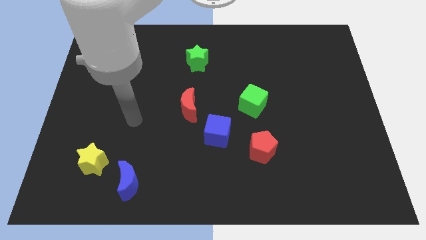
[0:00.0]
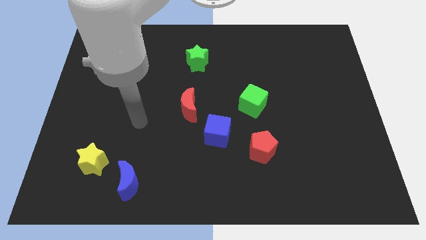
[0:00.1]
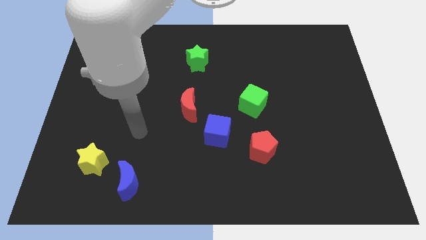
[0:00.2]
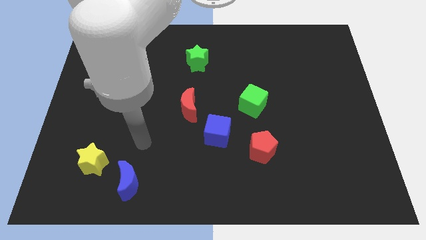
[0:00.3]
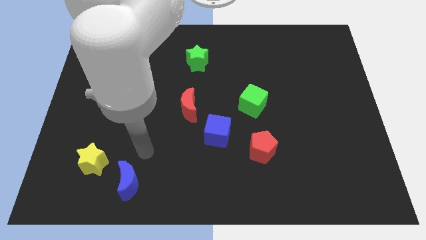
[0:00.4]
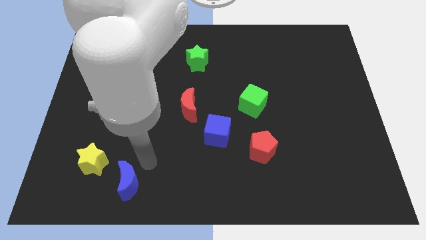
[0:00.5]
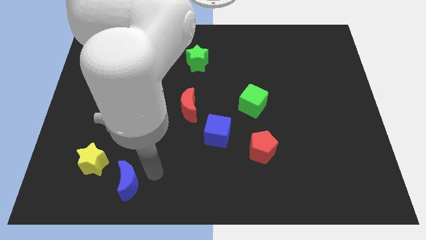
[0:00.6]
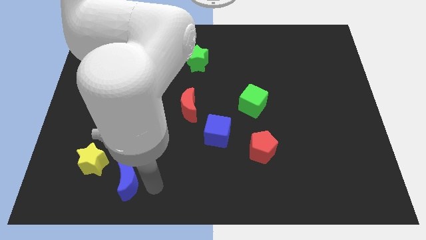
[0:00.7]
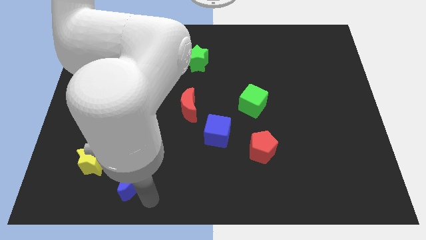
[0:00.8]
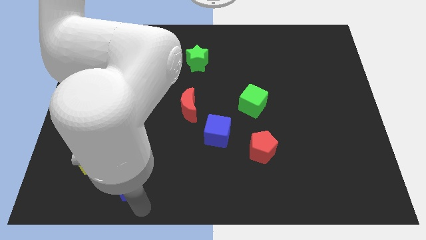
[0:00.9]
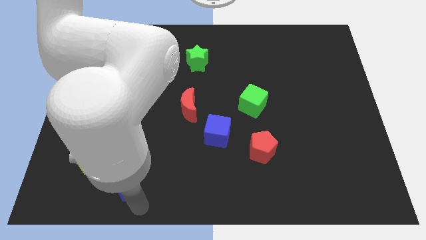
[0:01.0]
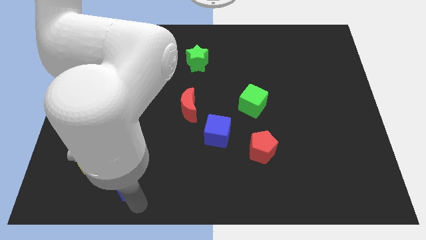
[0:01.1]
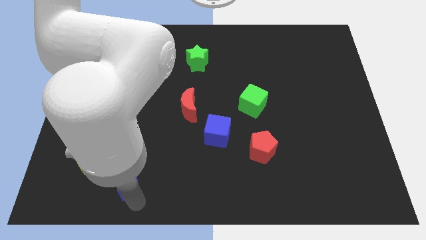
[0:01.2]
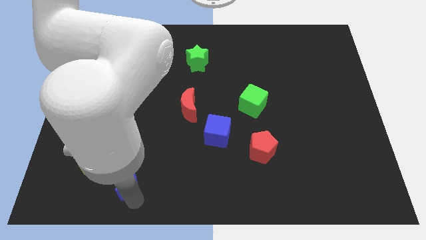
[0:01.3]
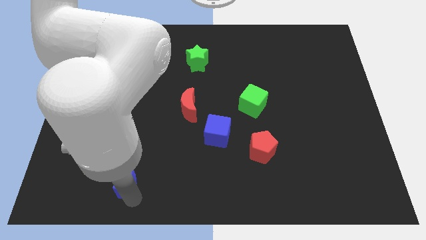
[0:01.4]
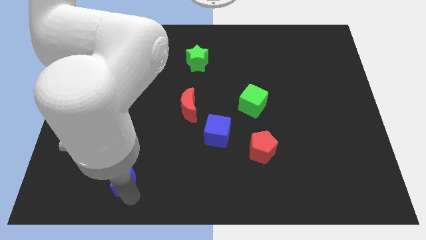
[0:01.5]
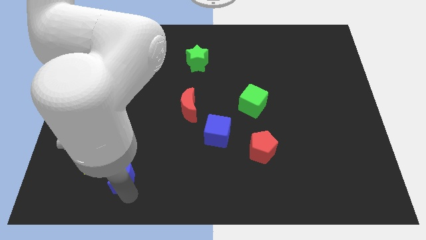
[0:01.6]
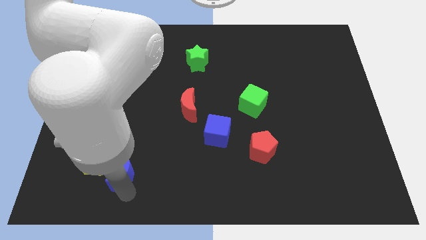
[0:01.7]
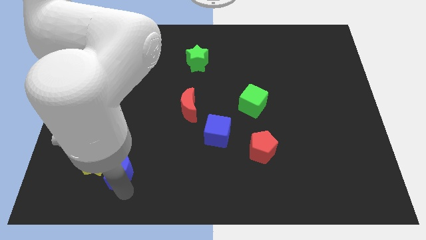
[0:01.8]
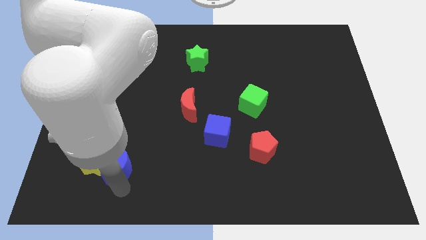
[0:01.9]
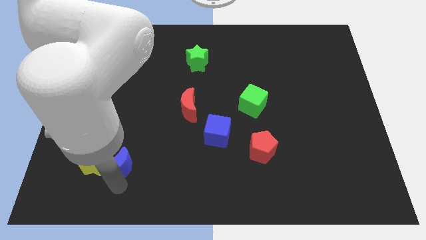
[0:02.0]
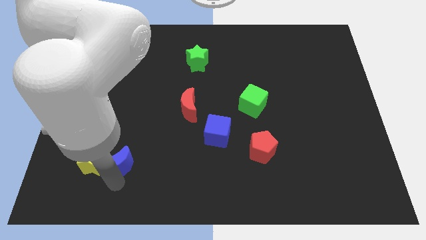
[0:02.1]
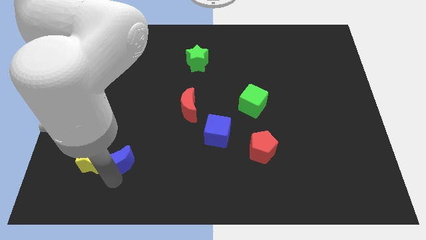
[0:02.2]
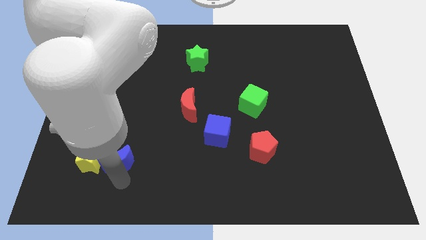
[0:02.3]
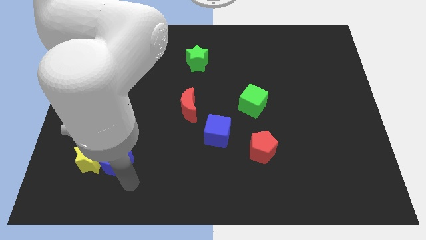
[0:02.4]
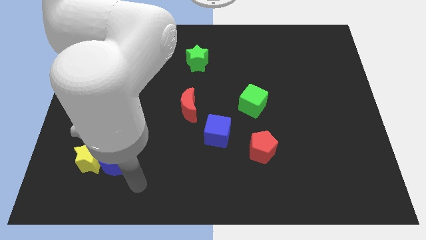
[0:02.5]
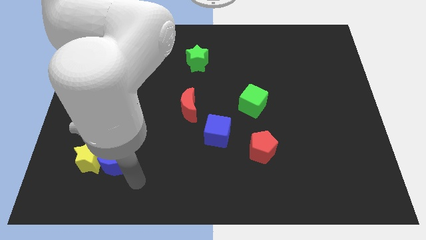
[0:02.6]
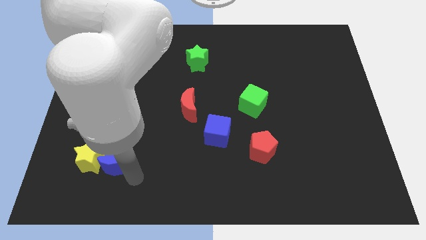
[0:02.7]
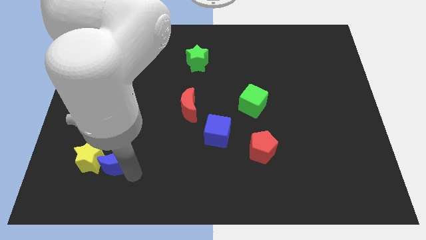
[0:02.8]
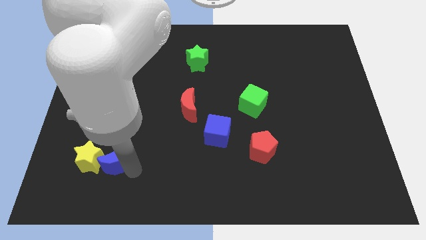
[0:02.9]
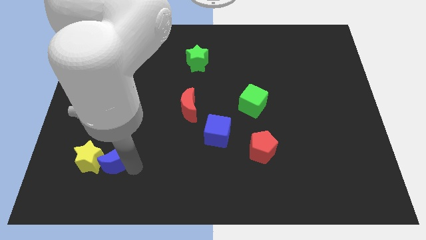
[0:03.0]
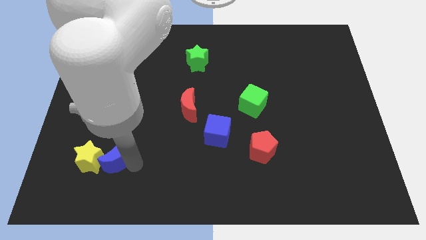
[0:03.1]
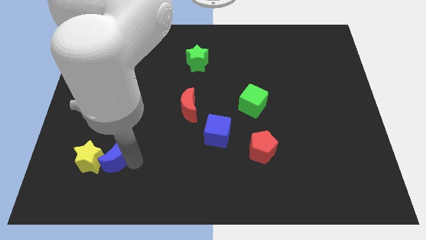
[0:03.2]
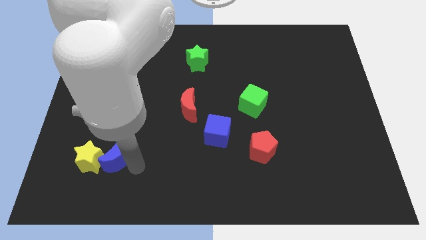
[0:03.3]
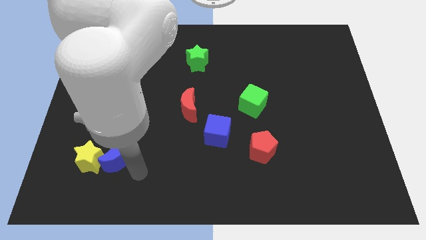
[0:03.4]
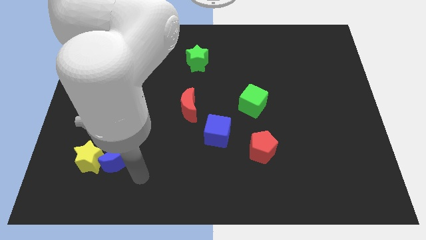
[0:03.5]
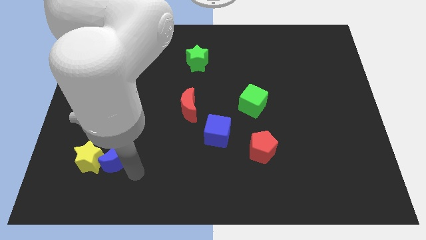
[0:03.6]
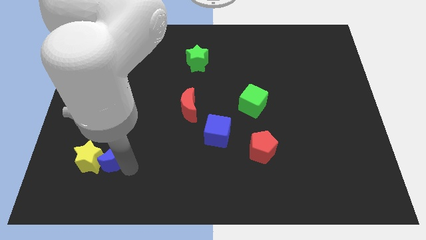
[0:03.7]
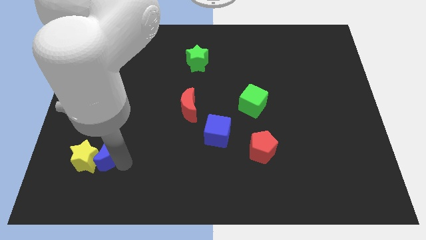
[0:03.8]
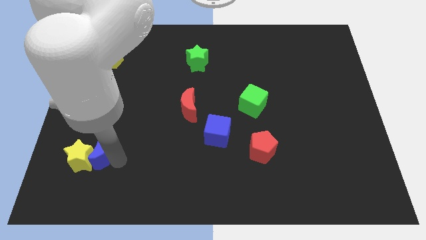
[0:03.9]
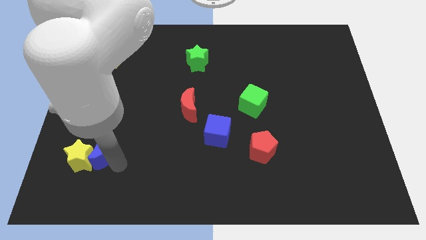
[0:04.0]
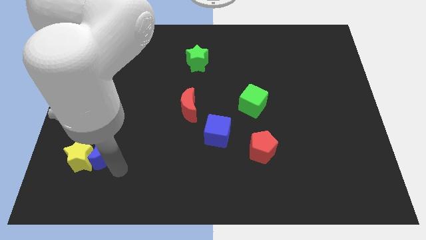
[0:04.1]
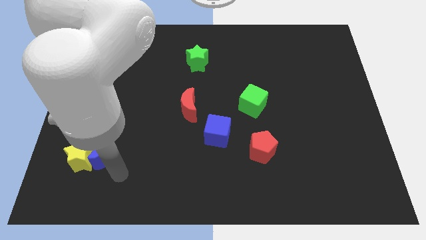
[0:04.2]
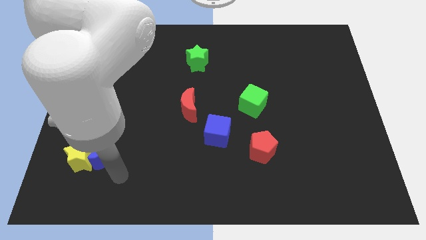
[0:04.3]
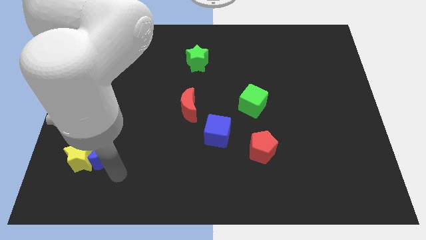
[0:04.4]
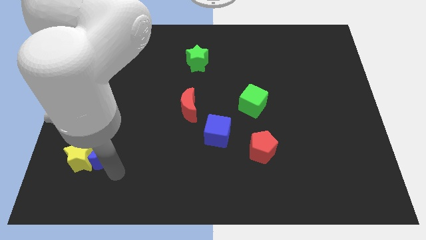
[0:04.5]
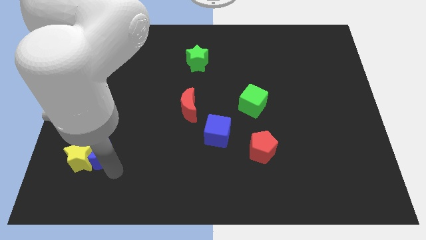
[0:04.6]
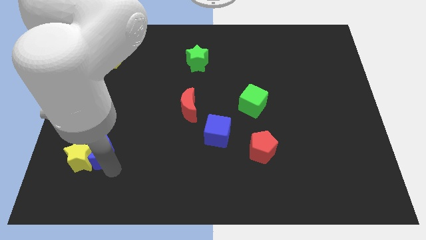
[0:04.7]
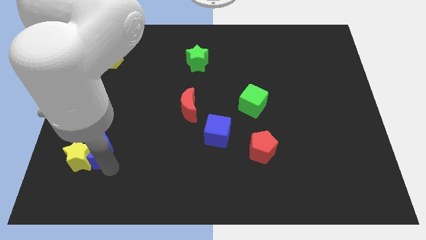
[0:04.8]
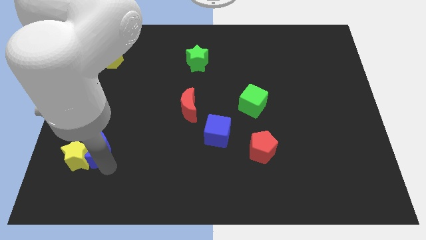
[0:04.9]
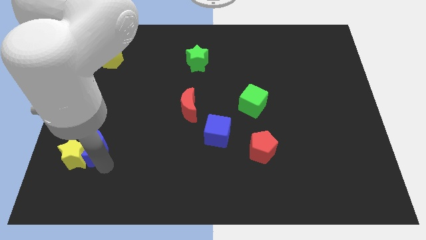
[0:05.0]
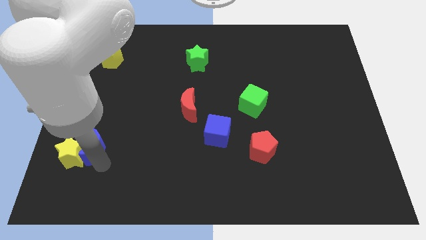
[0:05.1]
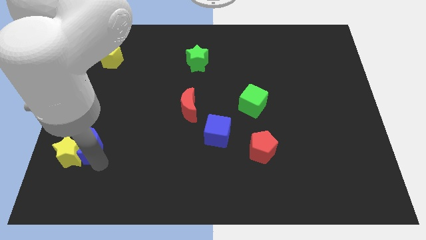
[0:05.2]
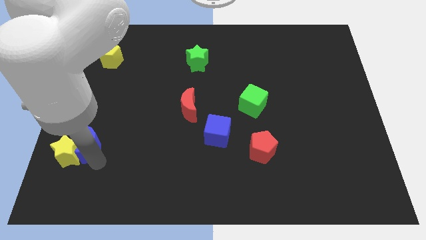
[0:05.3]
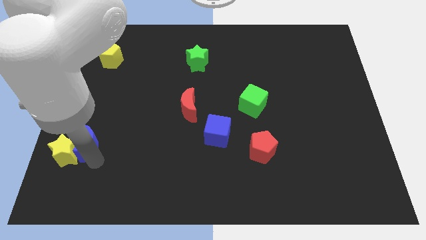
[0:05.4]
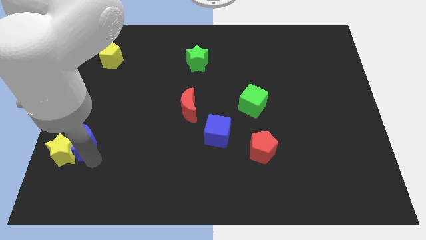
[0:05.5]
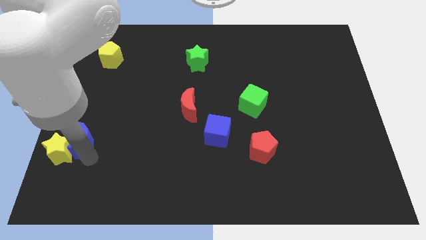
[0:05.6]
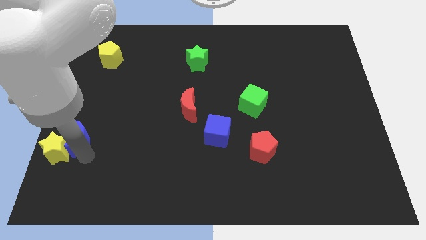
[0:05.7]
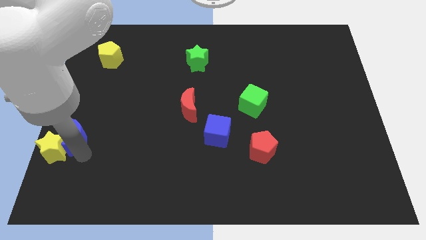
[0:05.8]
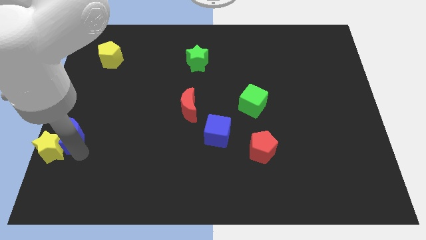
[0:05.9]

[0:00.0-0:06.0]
move the blue moon to the left side of the board

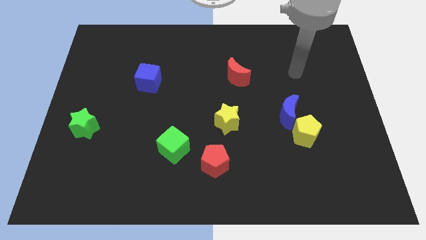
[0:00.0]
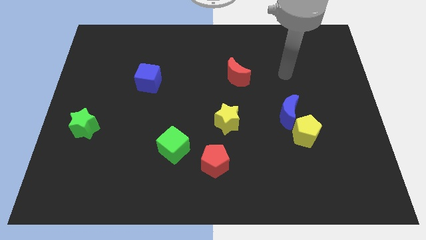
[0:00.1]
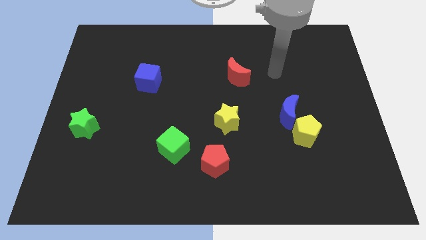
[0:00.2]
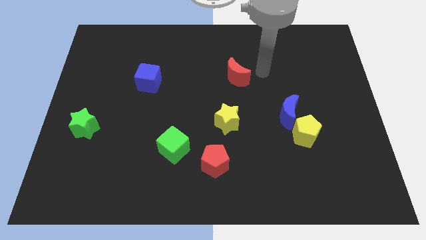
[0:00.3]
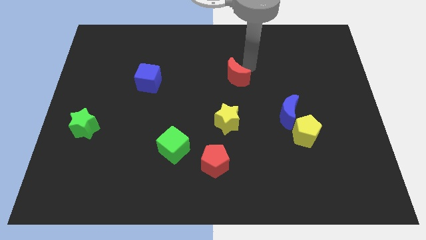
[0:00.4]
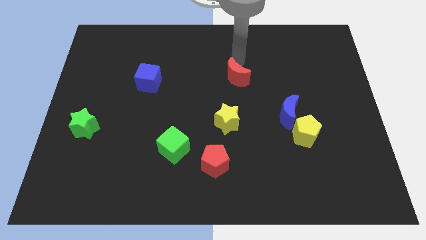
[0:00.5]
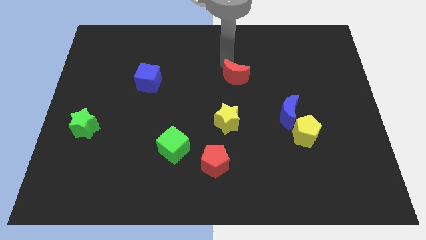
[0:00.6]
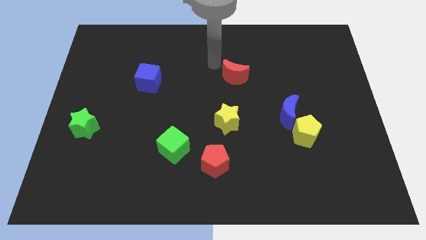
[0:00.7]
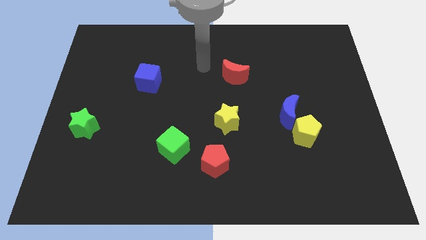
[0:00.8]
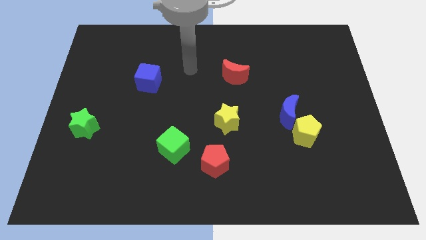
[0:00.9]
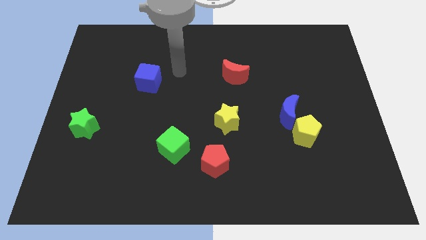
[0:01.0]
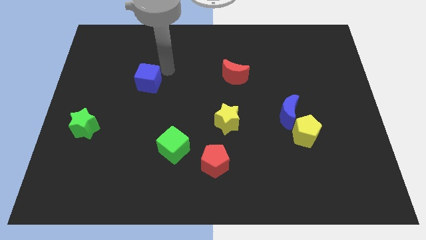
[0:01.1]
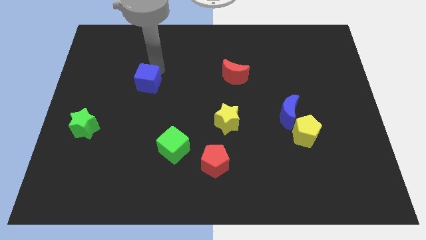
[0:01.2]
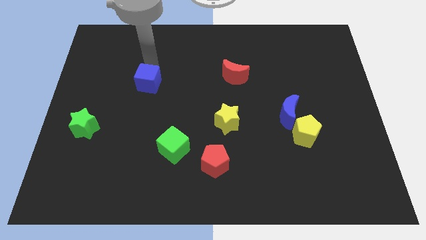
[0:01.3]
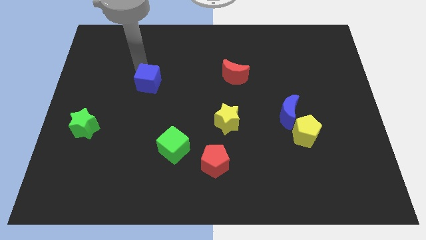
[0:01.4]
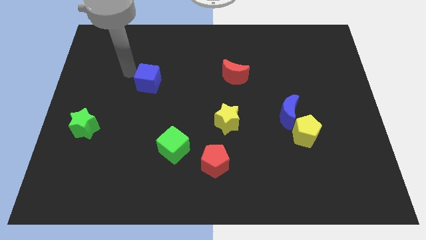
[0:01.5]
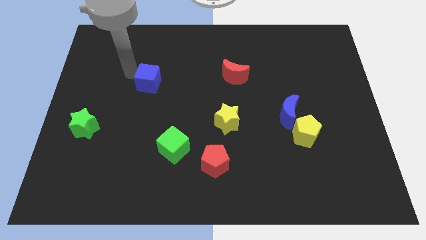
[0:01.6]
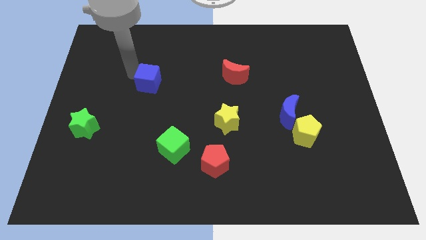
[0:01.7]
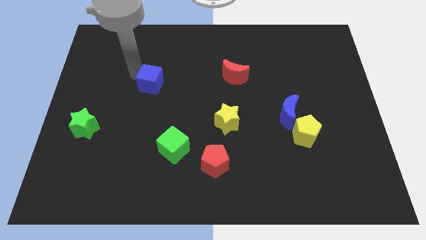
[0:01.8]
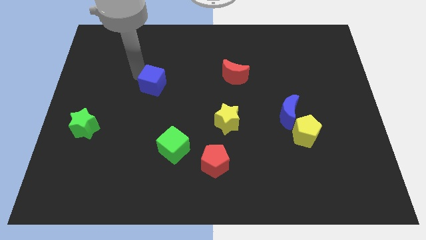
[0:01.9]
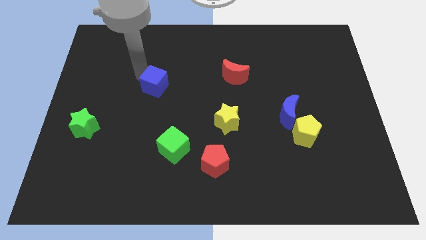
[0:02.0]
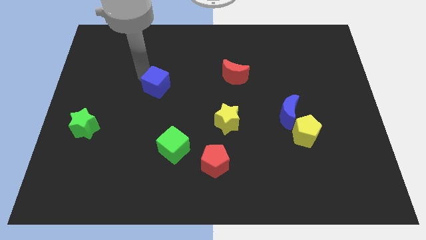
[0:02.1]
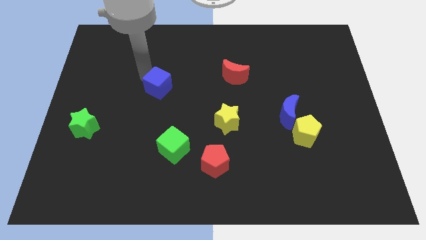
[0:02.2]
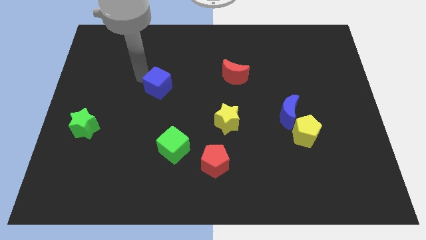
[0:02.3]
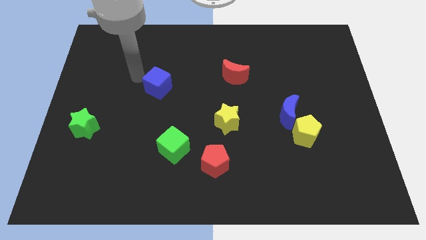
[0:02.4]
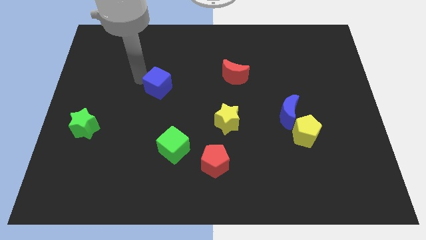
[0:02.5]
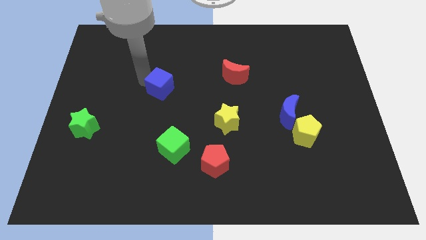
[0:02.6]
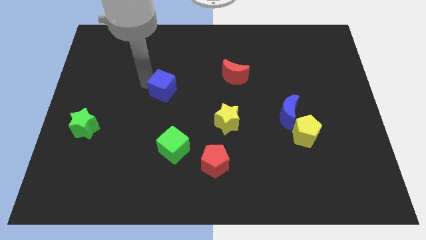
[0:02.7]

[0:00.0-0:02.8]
push the blue cube to the middle of the board
